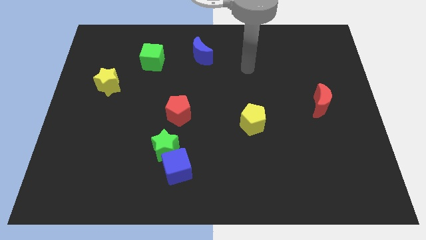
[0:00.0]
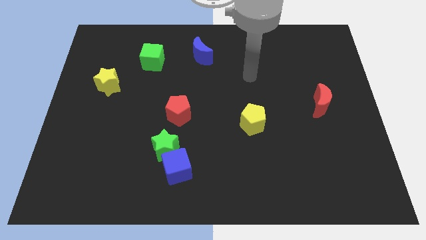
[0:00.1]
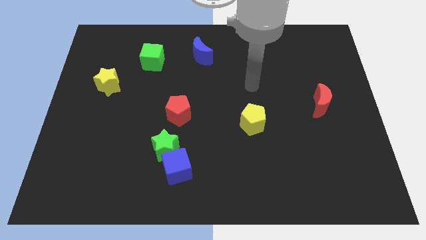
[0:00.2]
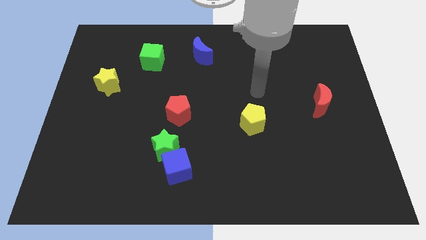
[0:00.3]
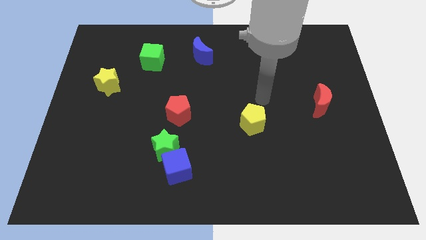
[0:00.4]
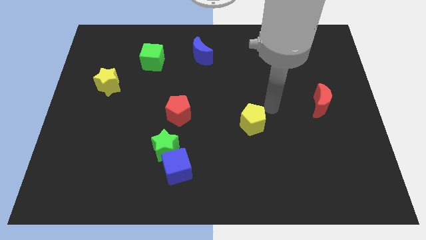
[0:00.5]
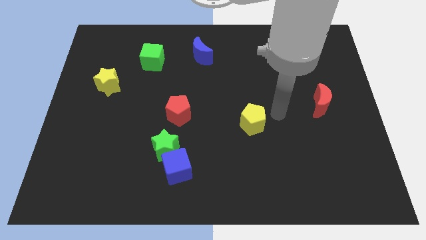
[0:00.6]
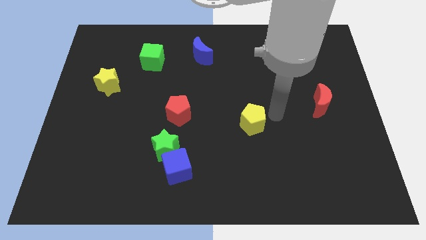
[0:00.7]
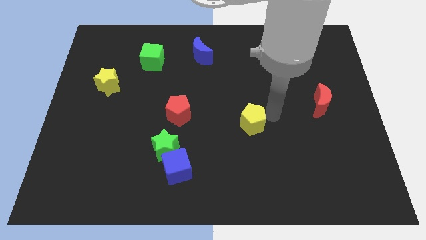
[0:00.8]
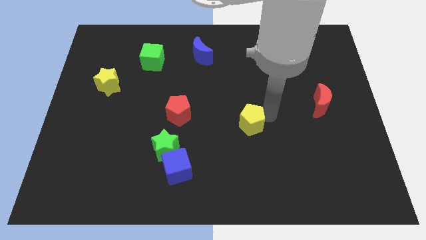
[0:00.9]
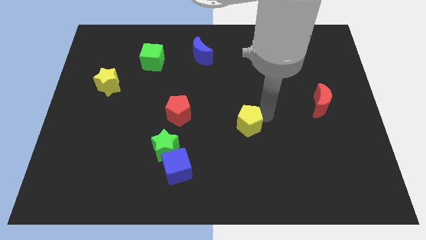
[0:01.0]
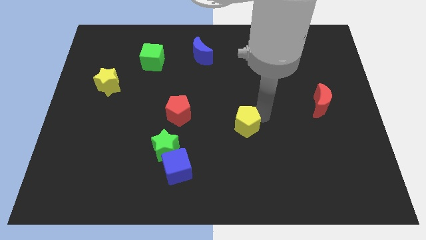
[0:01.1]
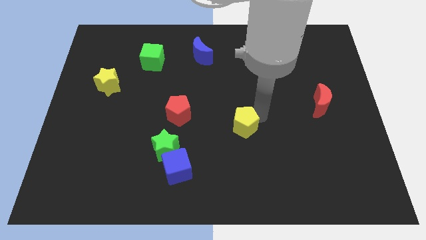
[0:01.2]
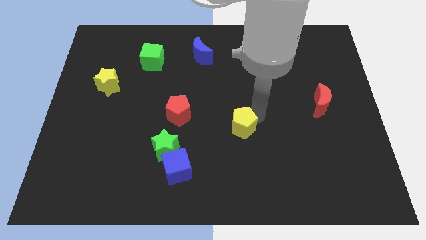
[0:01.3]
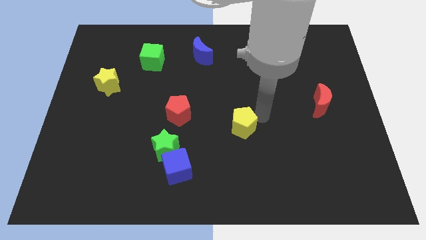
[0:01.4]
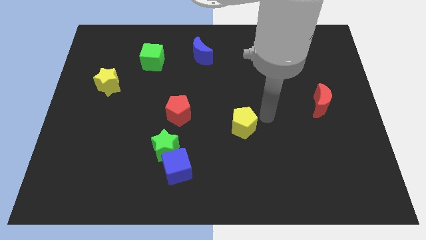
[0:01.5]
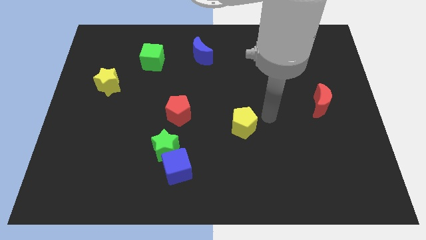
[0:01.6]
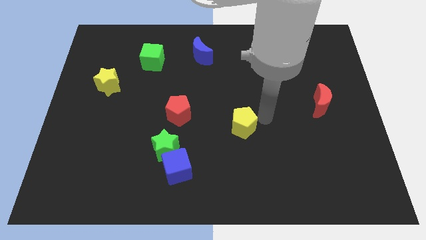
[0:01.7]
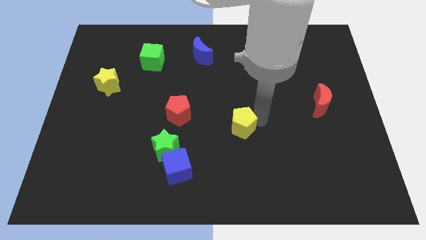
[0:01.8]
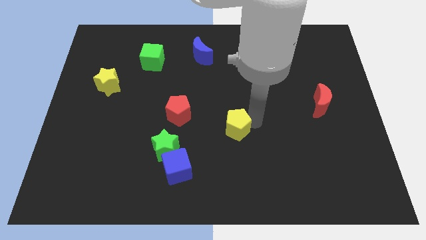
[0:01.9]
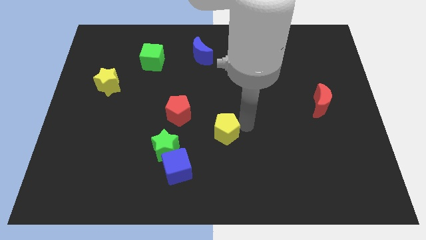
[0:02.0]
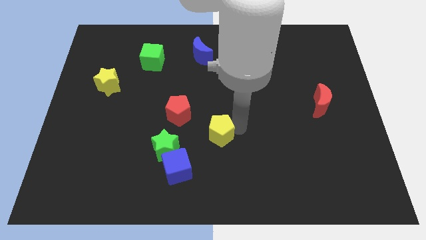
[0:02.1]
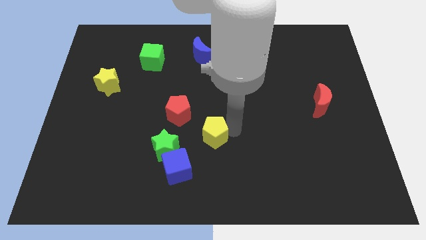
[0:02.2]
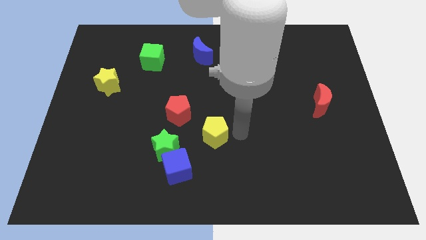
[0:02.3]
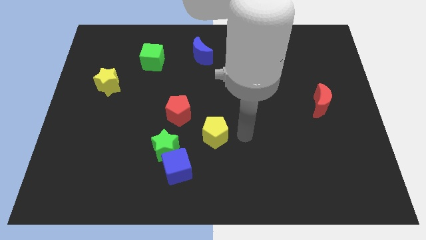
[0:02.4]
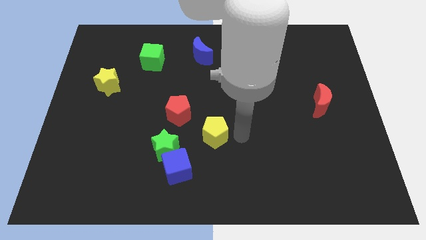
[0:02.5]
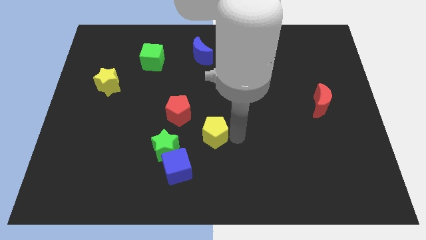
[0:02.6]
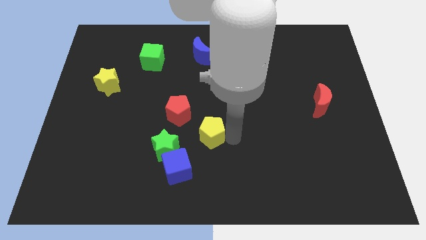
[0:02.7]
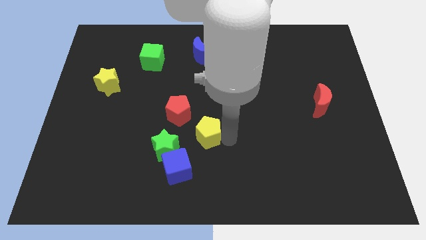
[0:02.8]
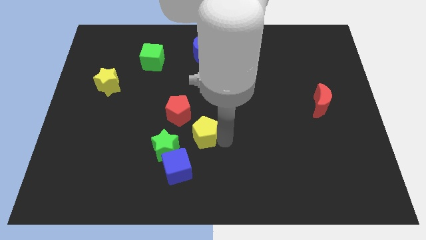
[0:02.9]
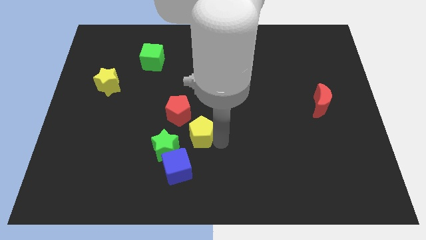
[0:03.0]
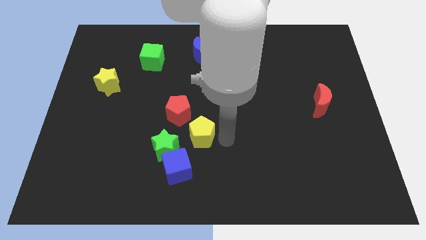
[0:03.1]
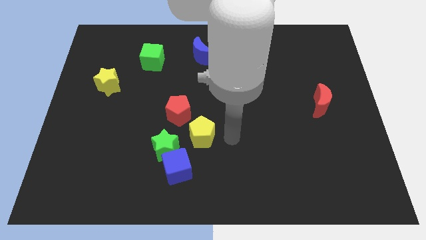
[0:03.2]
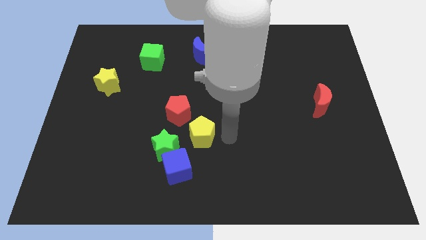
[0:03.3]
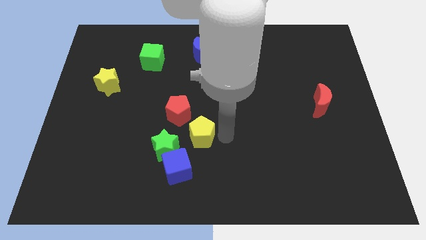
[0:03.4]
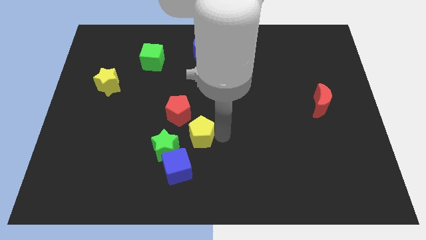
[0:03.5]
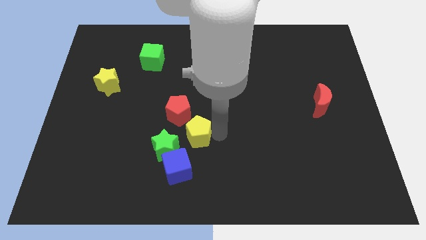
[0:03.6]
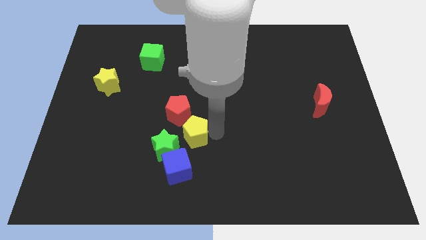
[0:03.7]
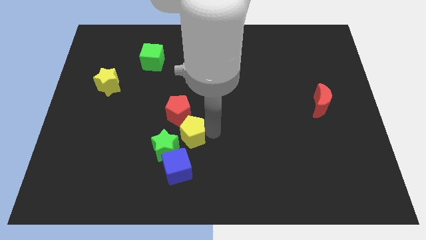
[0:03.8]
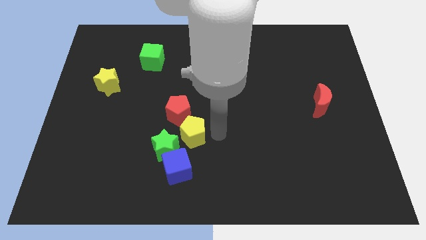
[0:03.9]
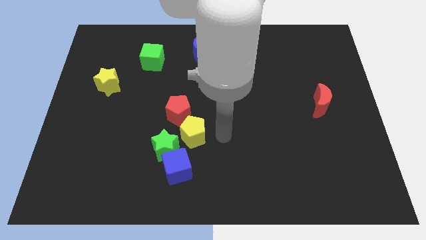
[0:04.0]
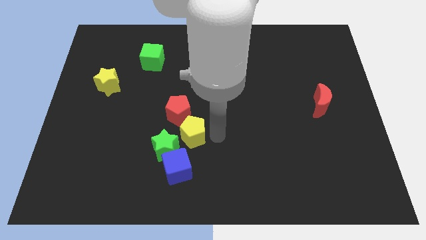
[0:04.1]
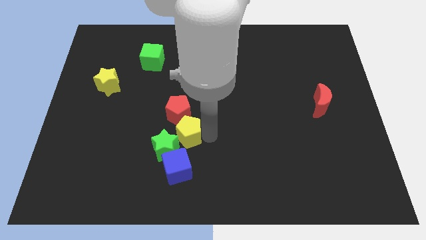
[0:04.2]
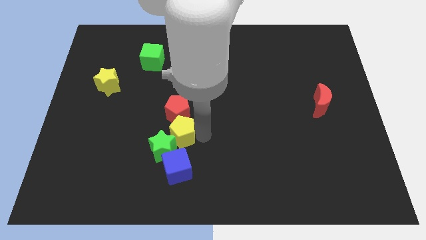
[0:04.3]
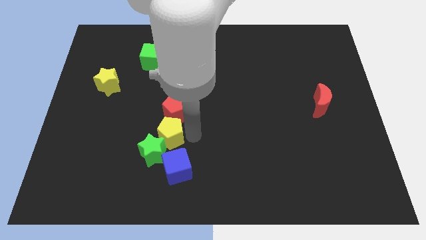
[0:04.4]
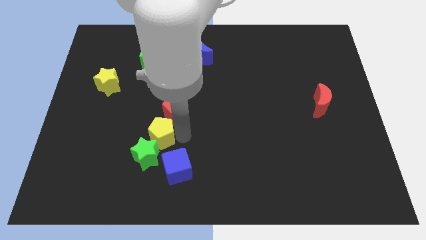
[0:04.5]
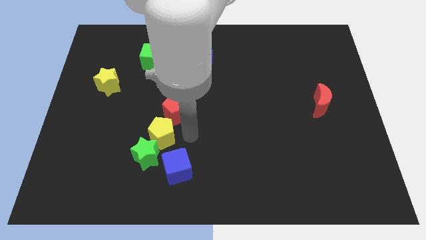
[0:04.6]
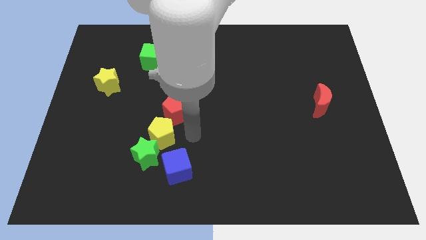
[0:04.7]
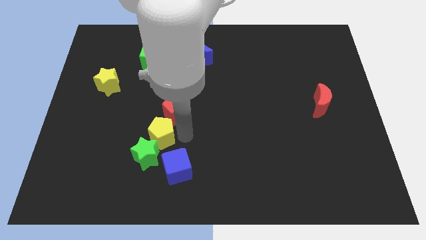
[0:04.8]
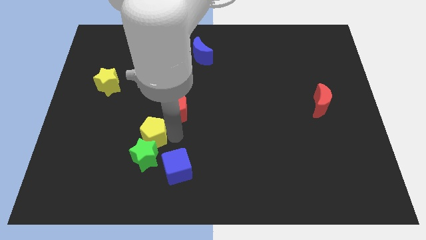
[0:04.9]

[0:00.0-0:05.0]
put the yellow pentagon to the top left of the green star

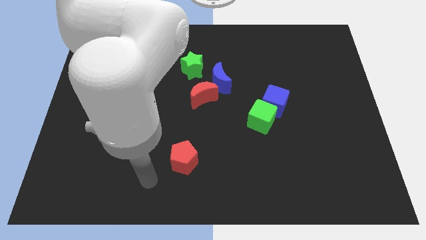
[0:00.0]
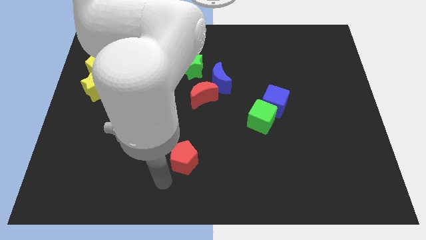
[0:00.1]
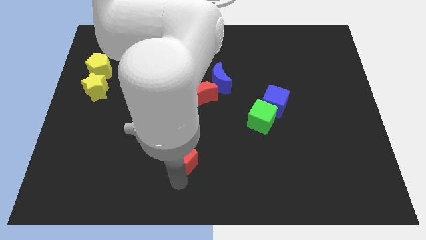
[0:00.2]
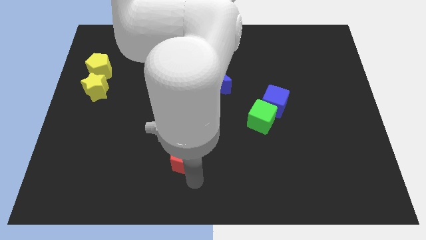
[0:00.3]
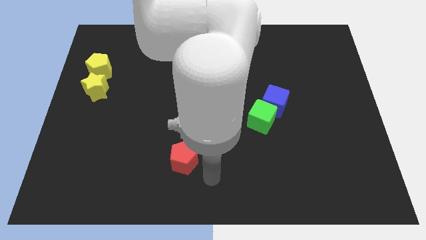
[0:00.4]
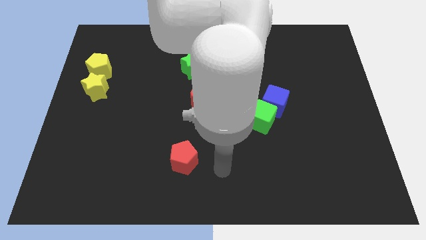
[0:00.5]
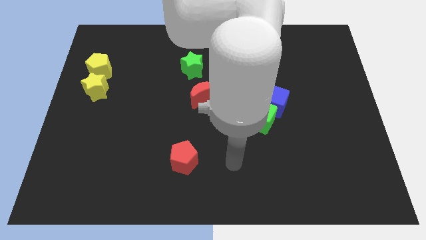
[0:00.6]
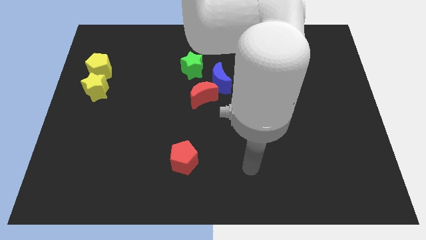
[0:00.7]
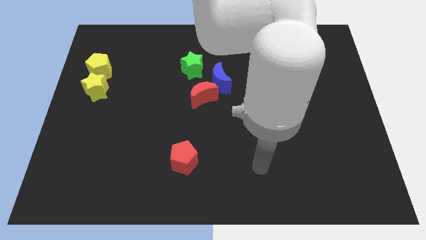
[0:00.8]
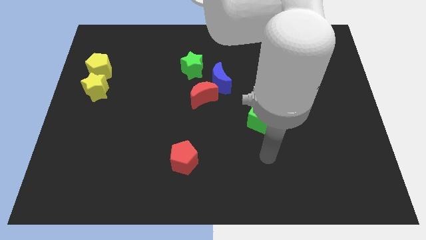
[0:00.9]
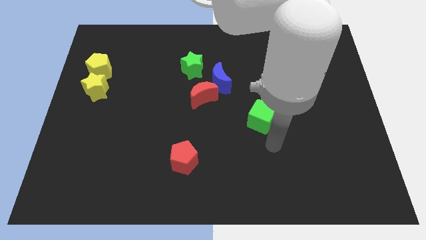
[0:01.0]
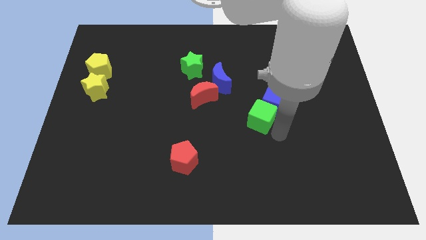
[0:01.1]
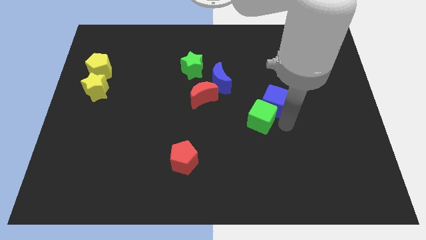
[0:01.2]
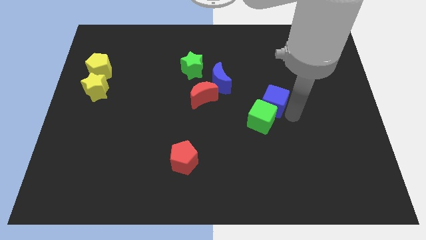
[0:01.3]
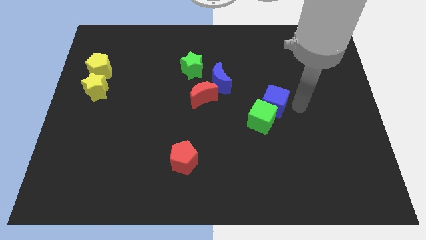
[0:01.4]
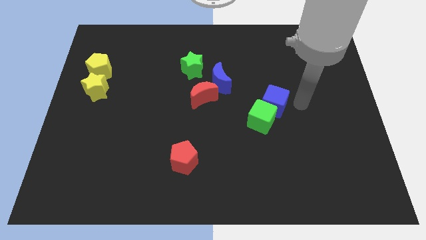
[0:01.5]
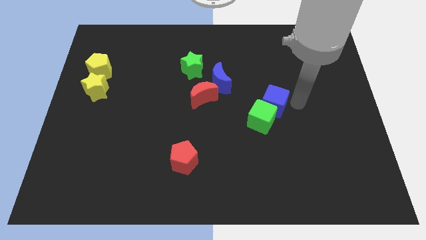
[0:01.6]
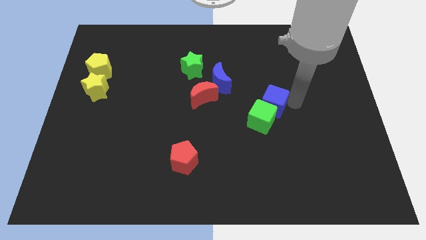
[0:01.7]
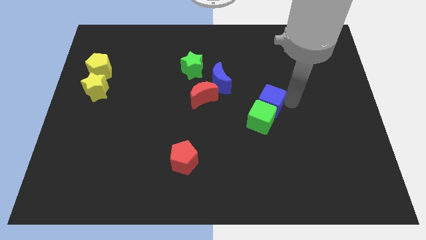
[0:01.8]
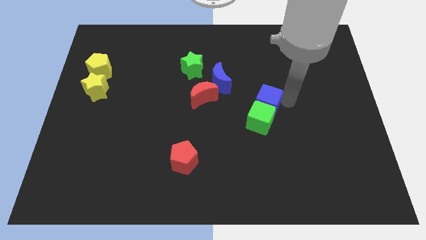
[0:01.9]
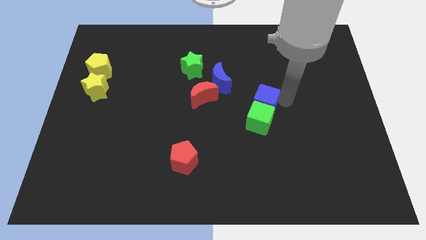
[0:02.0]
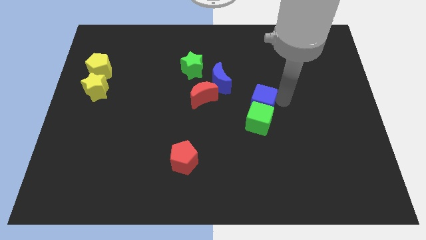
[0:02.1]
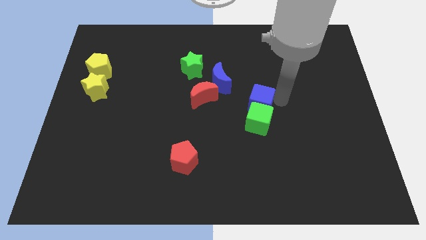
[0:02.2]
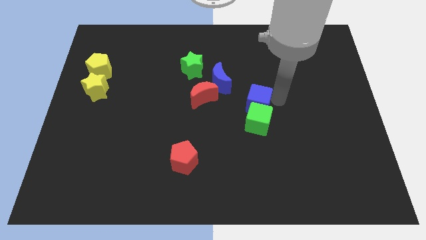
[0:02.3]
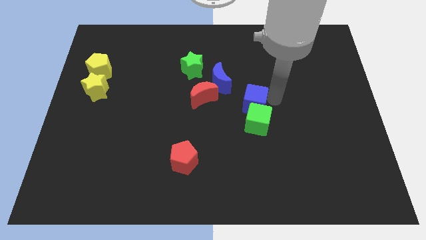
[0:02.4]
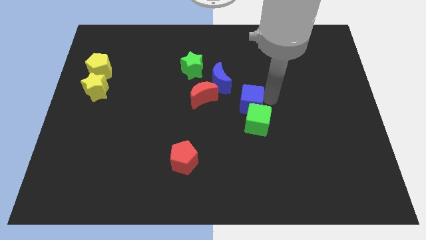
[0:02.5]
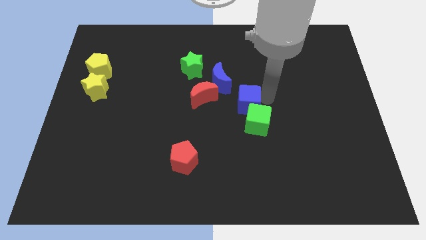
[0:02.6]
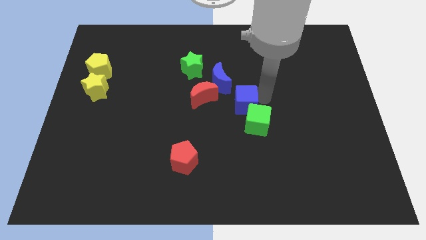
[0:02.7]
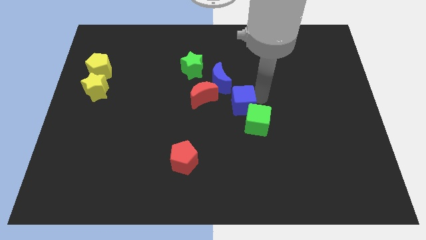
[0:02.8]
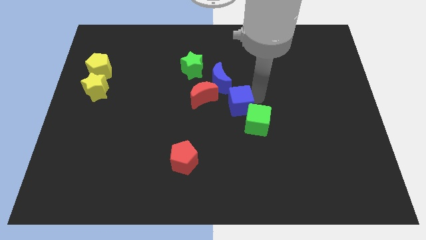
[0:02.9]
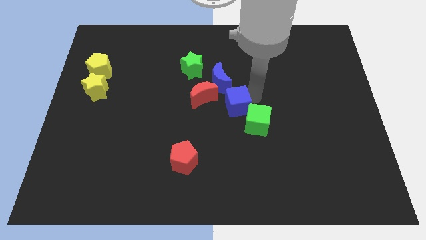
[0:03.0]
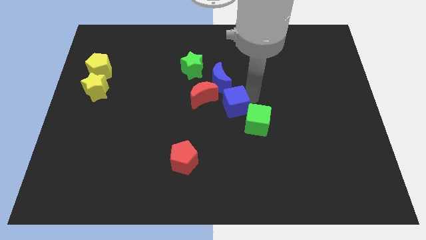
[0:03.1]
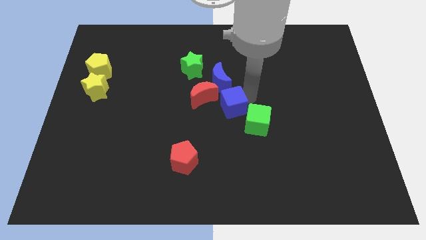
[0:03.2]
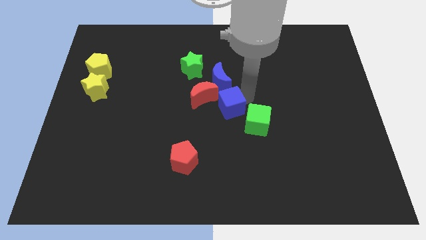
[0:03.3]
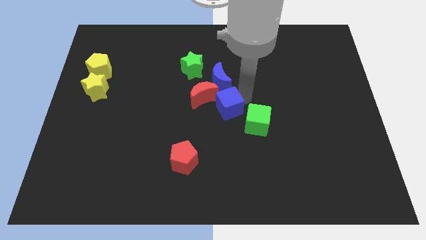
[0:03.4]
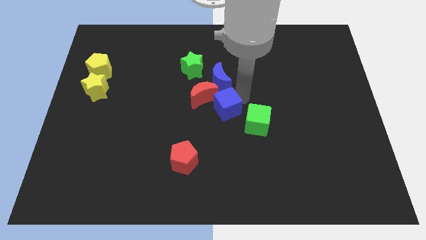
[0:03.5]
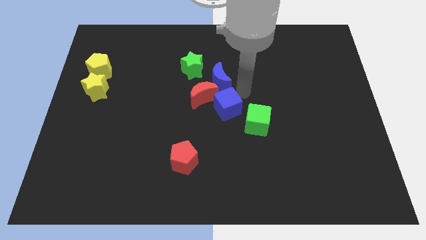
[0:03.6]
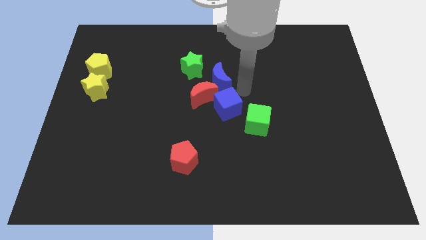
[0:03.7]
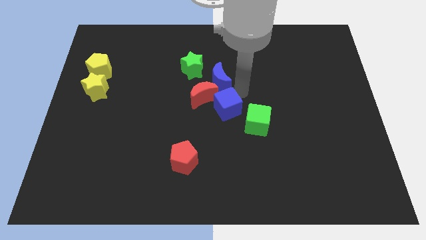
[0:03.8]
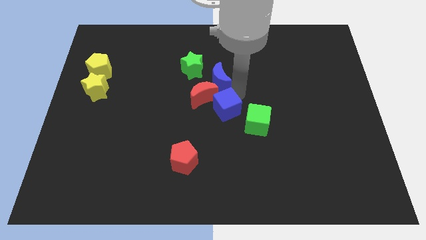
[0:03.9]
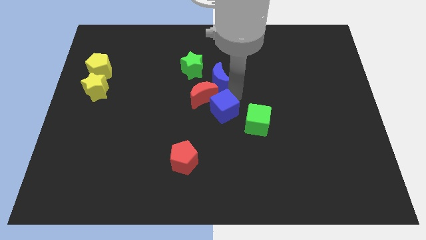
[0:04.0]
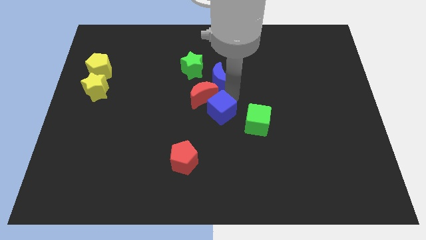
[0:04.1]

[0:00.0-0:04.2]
push the blue cube to the bottom of the red moon
